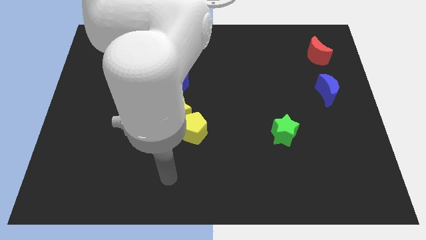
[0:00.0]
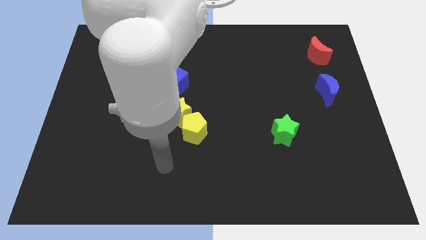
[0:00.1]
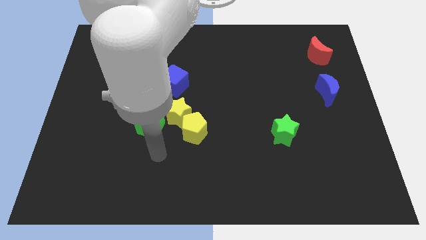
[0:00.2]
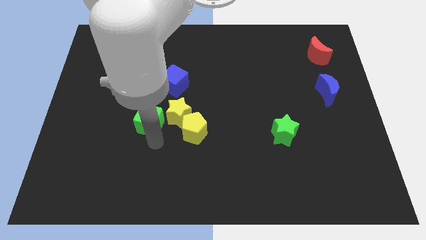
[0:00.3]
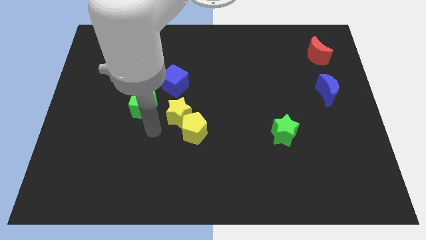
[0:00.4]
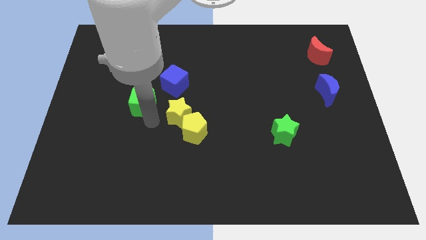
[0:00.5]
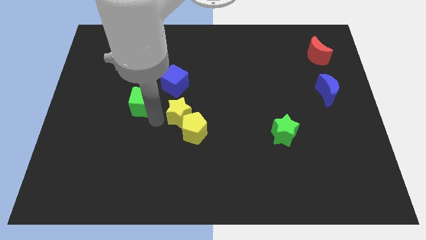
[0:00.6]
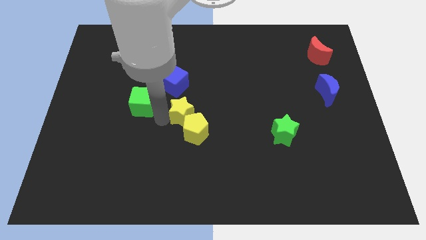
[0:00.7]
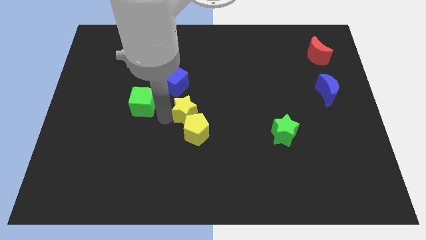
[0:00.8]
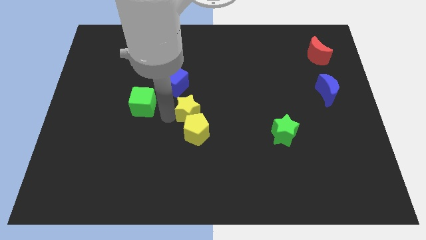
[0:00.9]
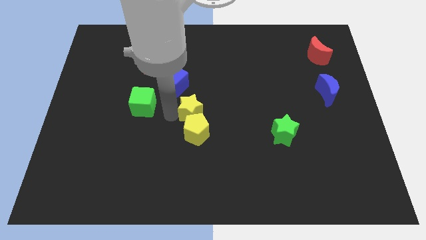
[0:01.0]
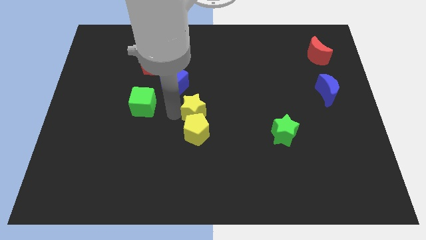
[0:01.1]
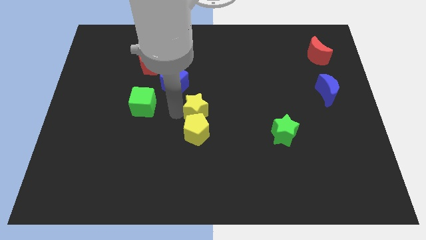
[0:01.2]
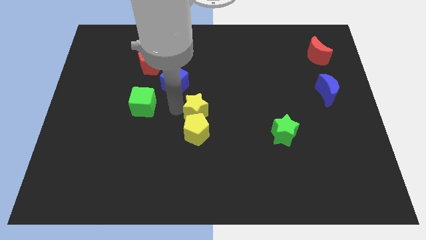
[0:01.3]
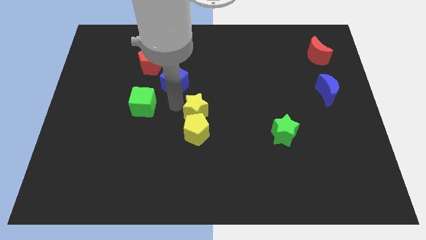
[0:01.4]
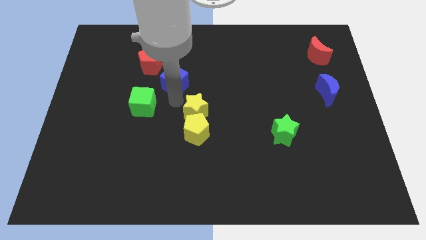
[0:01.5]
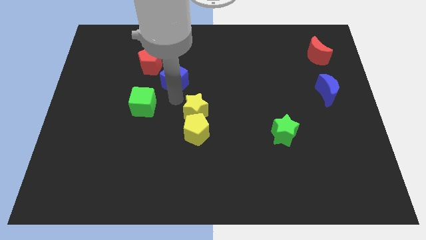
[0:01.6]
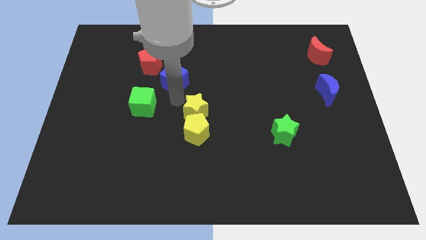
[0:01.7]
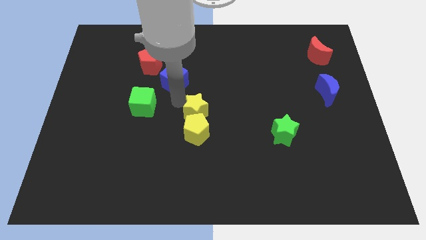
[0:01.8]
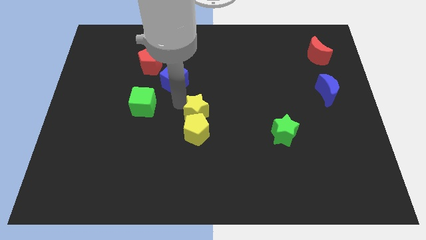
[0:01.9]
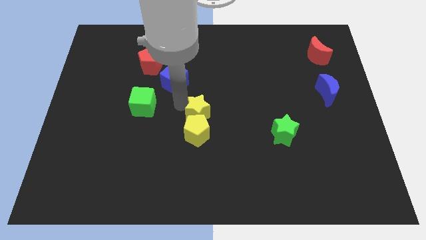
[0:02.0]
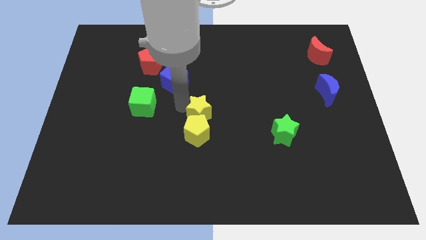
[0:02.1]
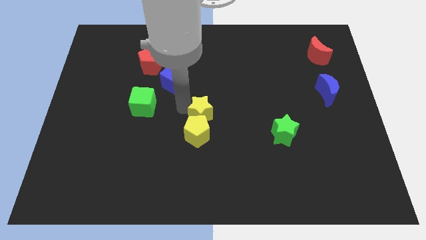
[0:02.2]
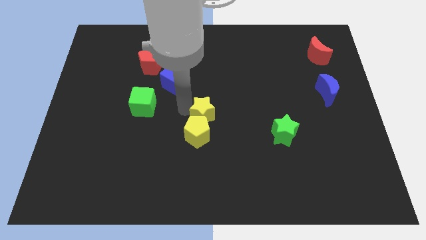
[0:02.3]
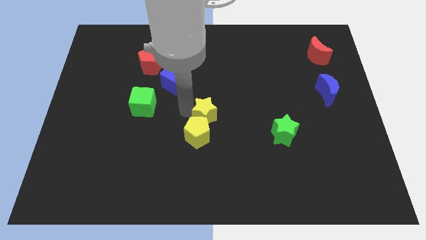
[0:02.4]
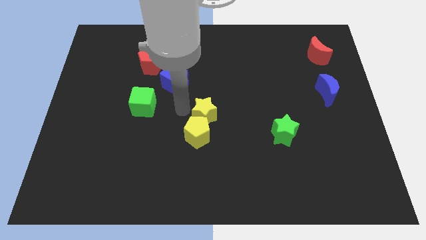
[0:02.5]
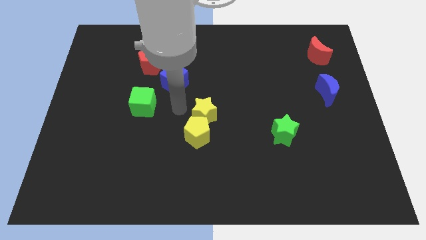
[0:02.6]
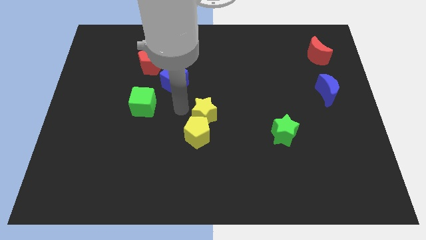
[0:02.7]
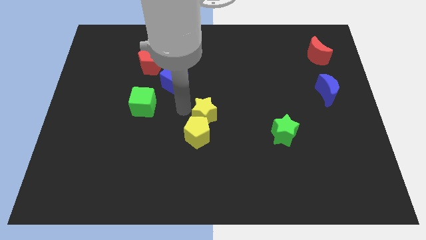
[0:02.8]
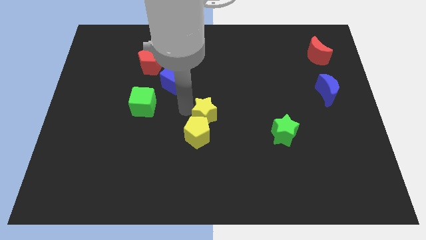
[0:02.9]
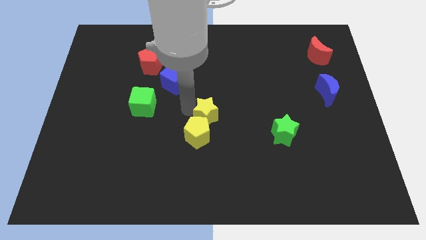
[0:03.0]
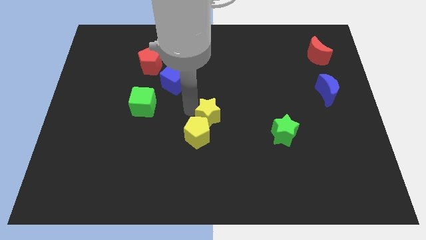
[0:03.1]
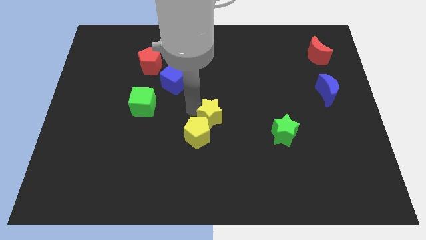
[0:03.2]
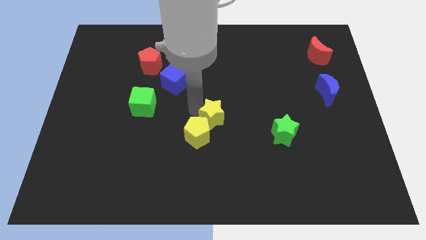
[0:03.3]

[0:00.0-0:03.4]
move the yellow star away from the yellow pentagon, green cube, and blue cube

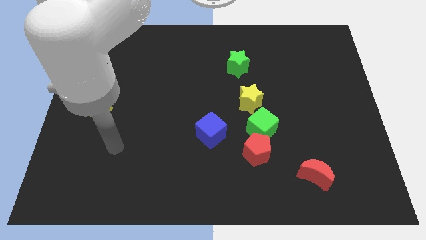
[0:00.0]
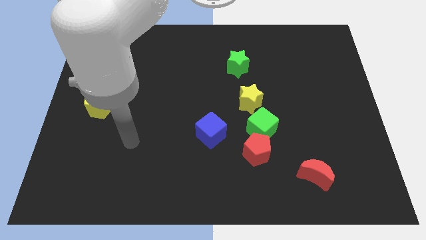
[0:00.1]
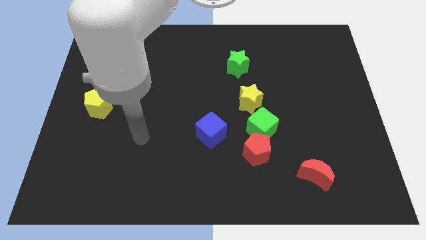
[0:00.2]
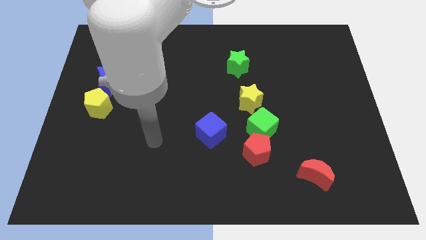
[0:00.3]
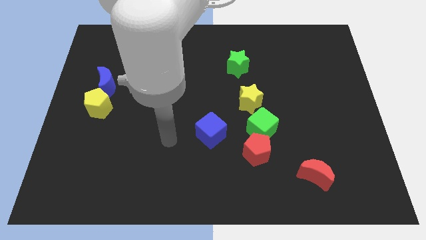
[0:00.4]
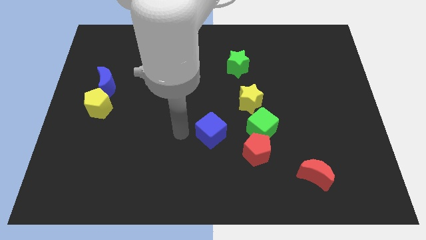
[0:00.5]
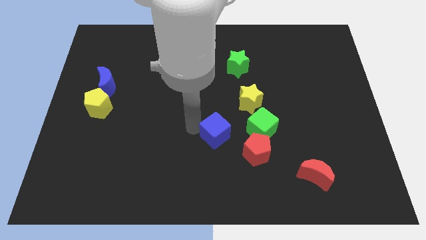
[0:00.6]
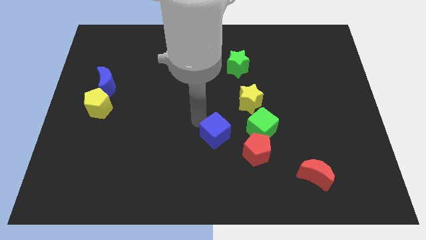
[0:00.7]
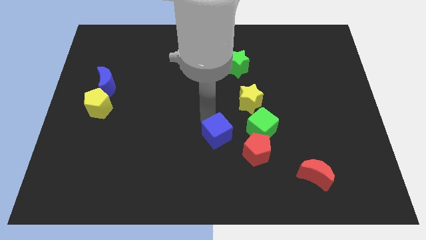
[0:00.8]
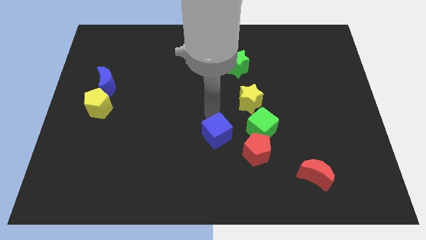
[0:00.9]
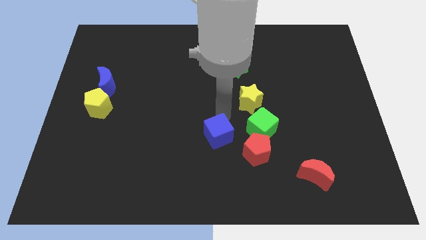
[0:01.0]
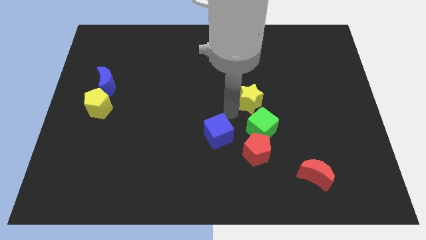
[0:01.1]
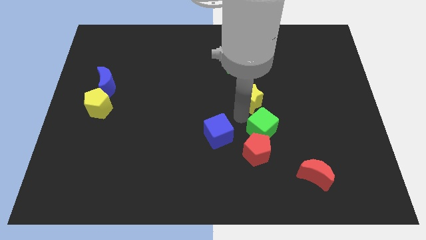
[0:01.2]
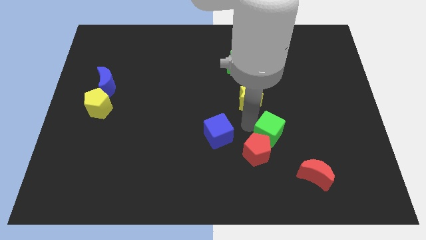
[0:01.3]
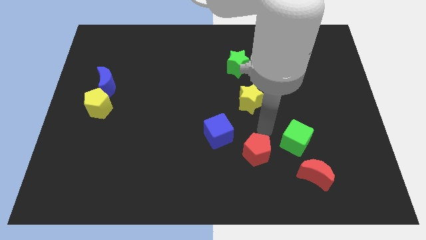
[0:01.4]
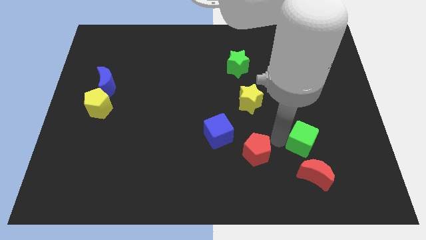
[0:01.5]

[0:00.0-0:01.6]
move the red pentagon away from the green cube

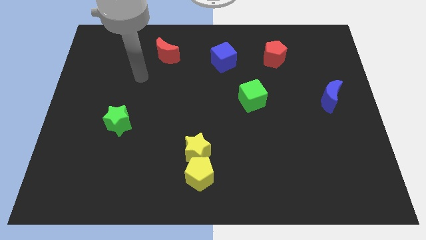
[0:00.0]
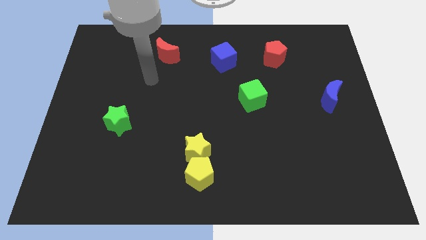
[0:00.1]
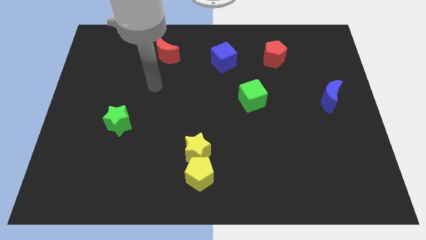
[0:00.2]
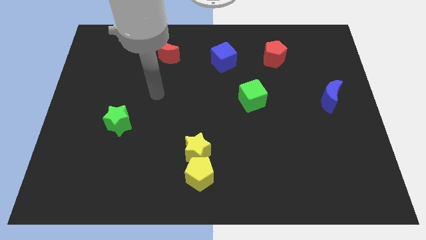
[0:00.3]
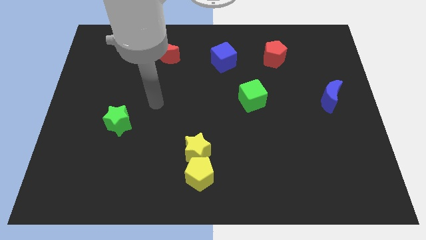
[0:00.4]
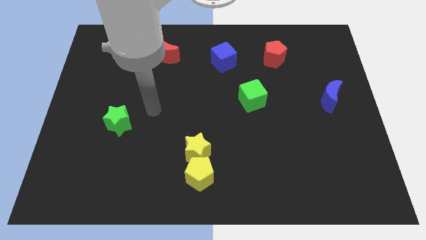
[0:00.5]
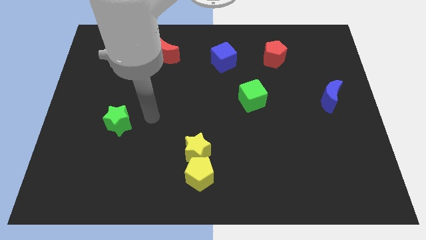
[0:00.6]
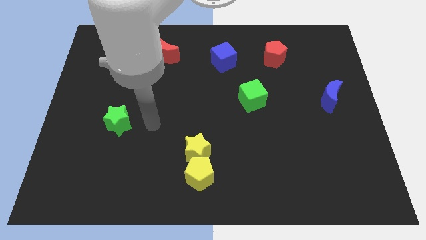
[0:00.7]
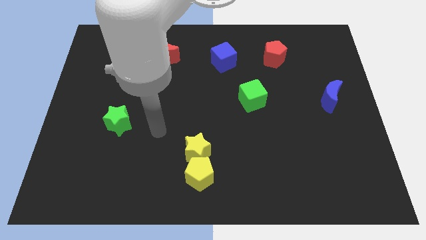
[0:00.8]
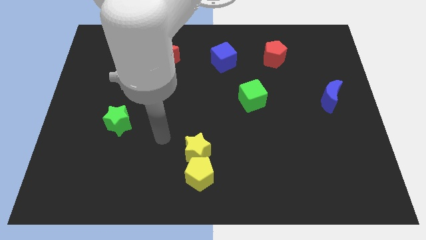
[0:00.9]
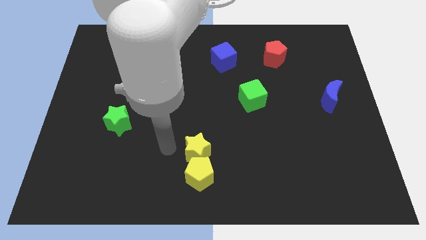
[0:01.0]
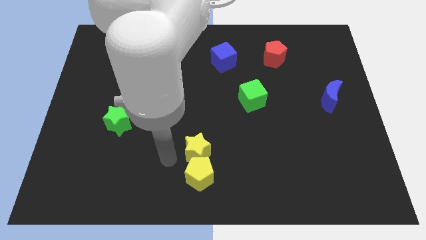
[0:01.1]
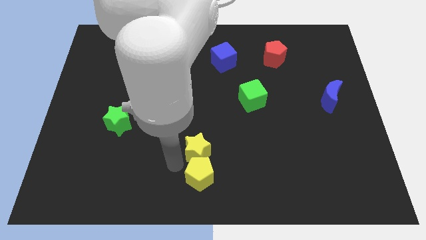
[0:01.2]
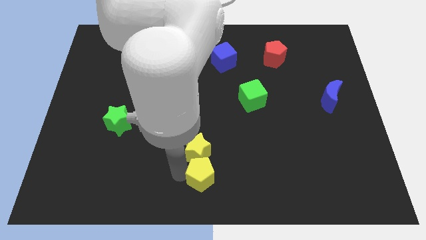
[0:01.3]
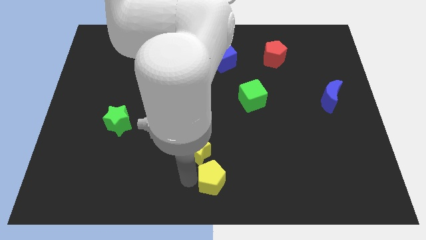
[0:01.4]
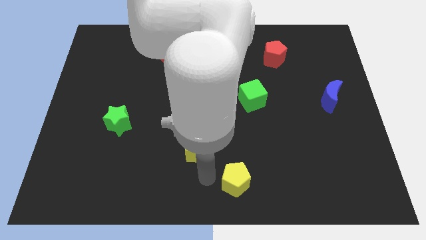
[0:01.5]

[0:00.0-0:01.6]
move the yellow star away from the yellow pentagon

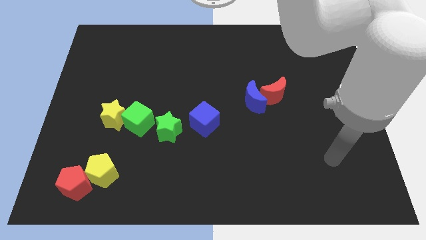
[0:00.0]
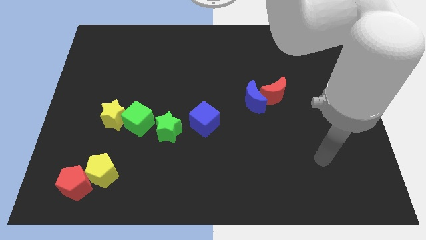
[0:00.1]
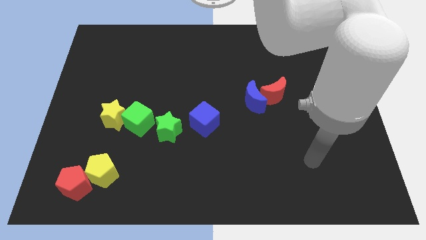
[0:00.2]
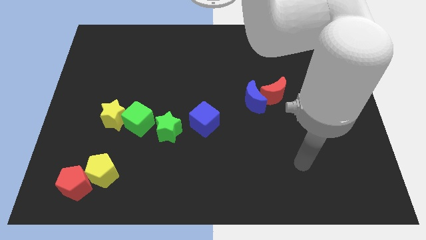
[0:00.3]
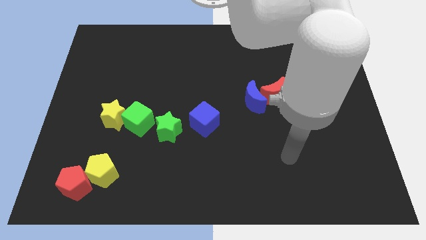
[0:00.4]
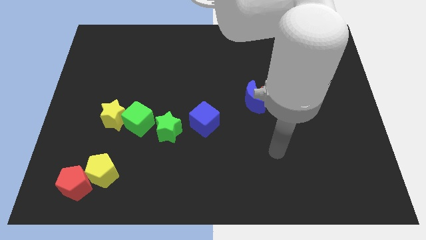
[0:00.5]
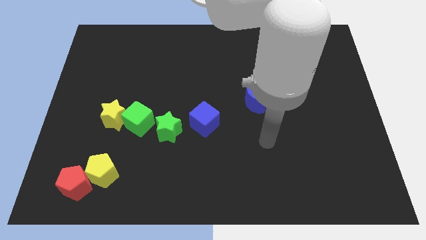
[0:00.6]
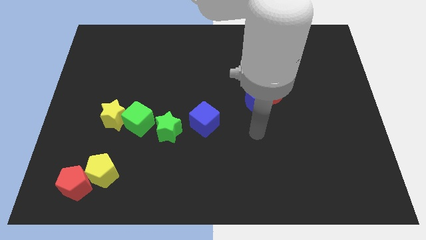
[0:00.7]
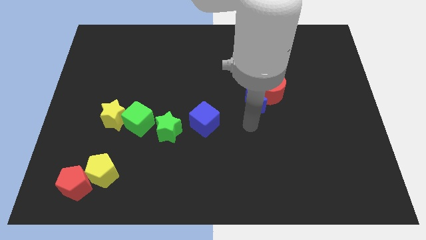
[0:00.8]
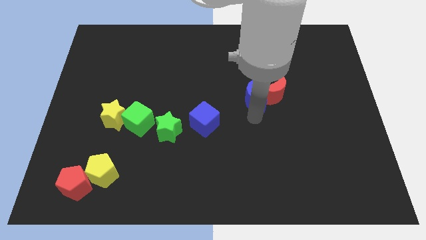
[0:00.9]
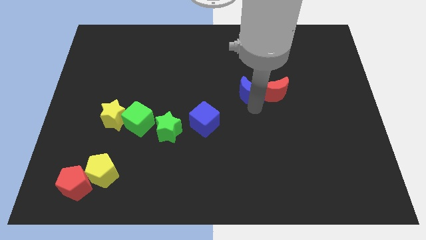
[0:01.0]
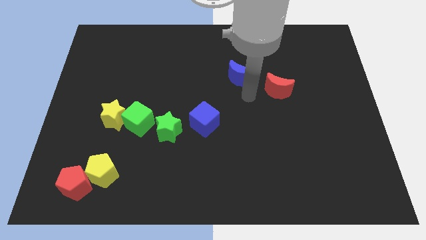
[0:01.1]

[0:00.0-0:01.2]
move the red moon away from the blue moon

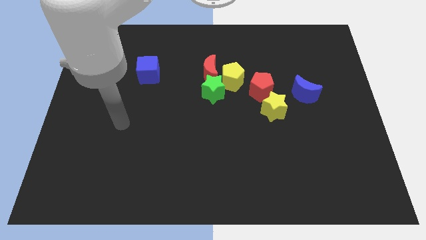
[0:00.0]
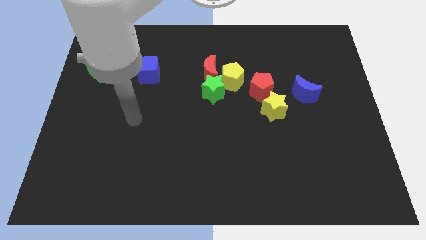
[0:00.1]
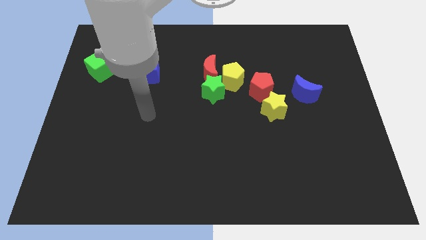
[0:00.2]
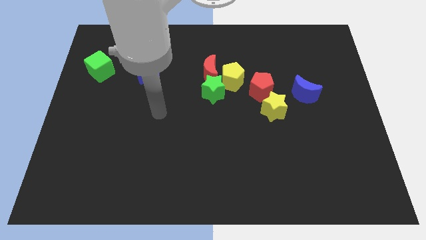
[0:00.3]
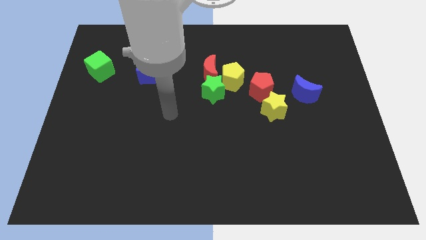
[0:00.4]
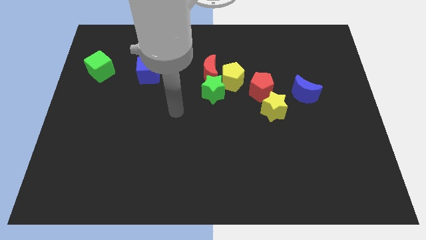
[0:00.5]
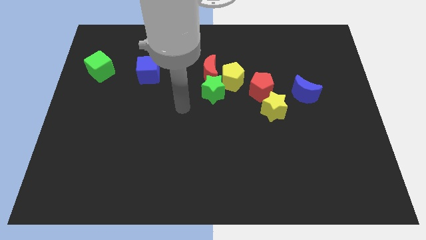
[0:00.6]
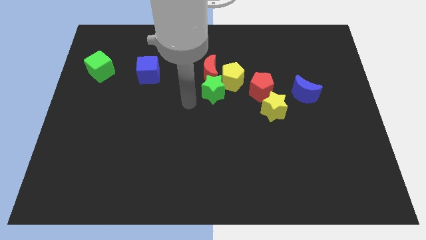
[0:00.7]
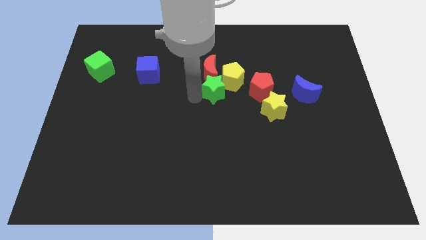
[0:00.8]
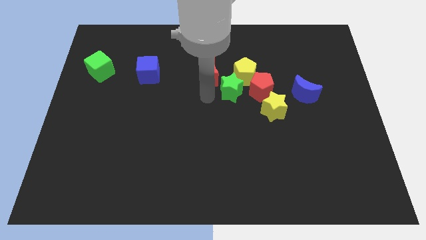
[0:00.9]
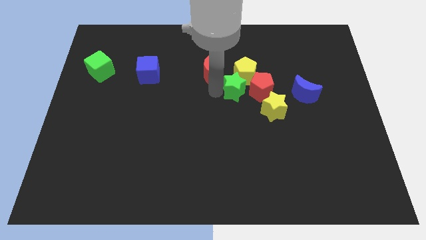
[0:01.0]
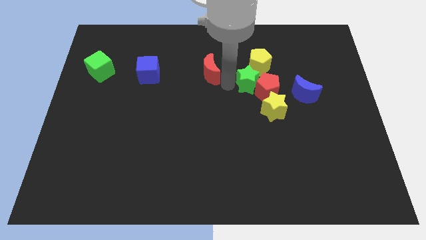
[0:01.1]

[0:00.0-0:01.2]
move the red moon away from the yellow pentagon and green star

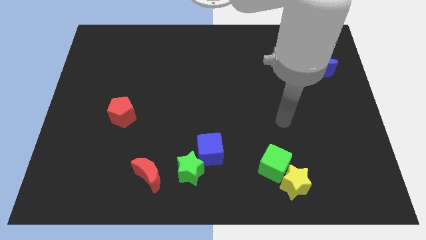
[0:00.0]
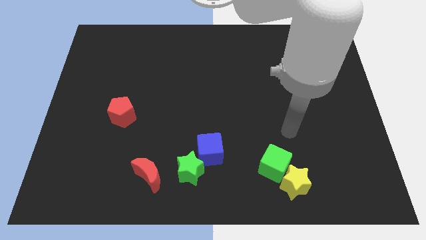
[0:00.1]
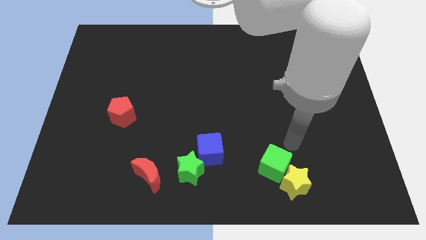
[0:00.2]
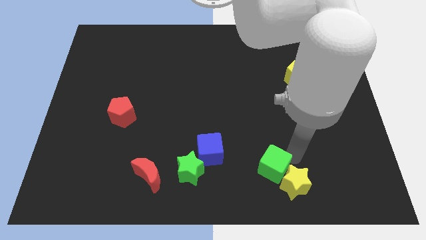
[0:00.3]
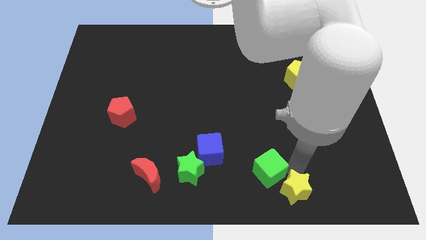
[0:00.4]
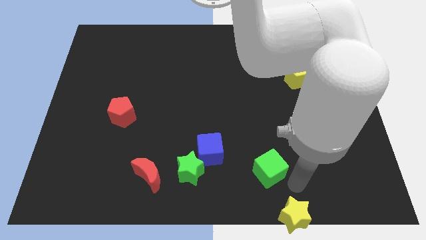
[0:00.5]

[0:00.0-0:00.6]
separate the green cube from the yellow star
